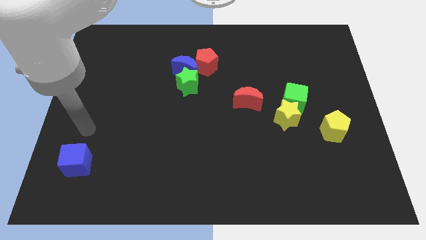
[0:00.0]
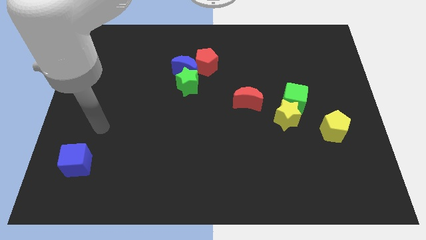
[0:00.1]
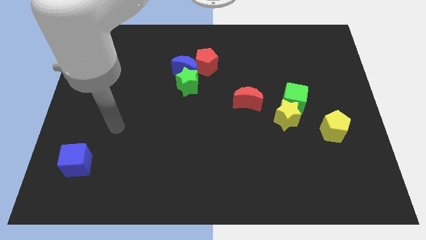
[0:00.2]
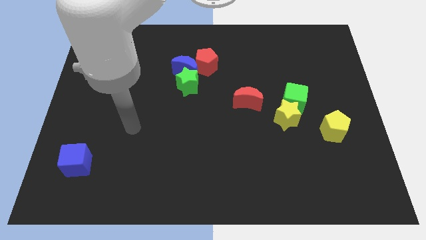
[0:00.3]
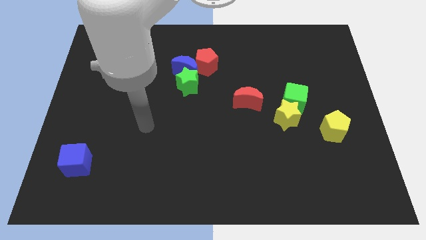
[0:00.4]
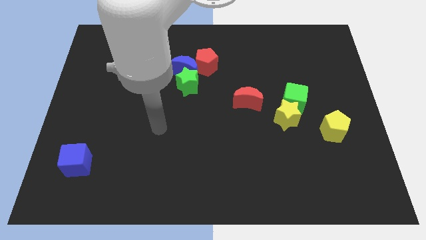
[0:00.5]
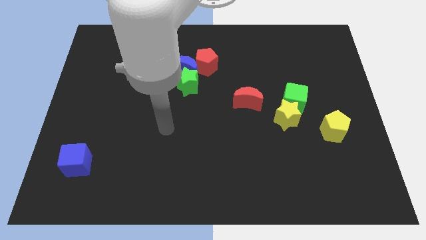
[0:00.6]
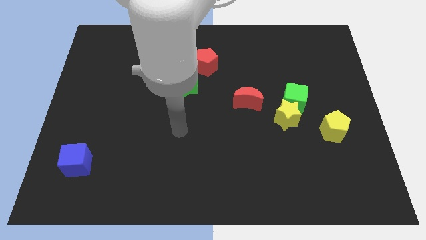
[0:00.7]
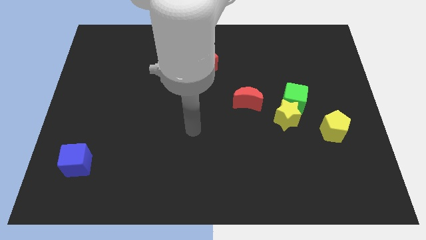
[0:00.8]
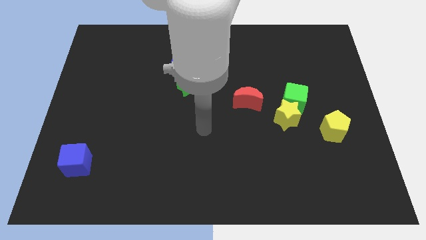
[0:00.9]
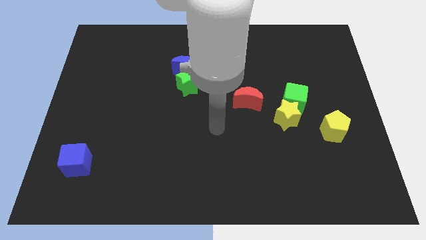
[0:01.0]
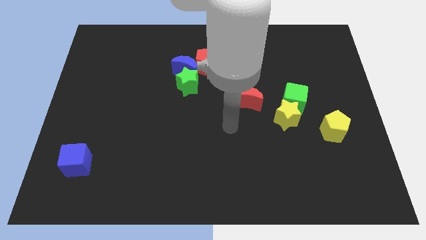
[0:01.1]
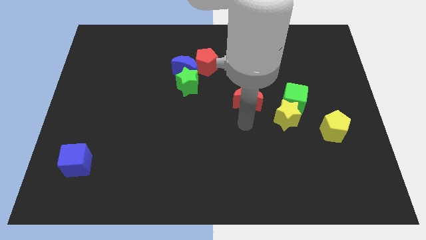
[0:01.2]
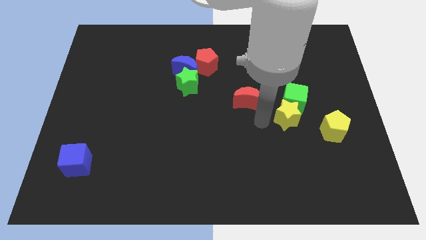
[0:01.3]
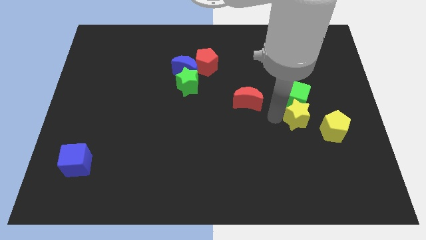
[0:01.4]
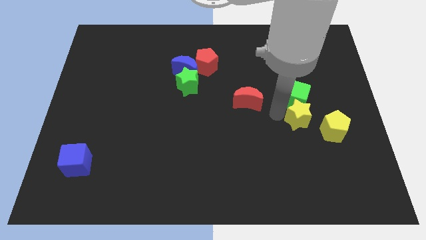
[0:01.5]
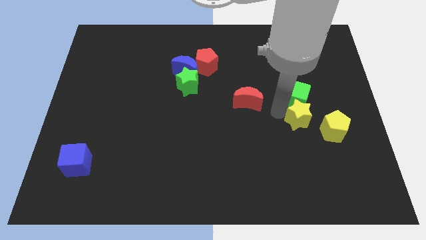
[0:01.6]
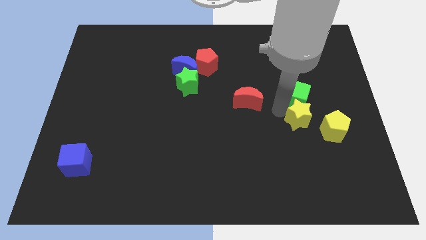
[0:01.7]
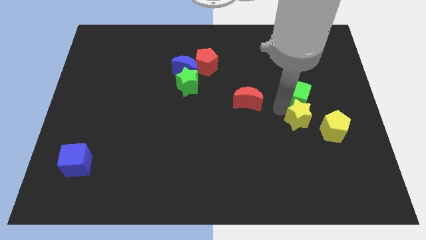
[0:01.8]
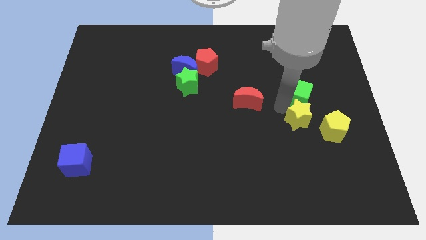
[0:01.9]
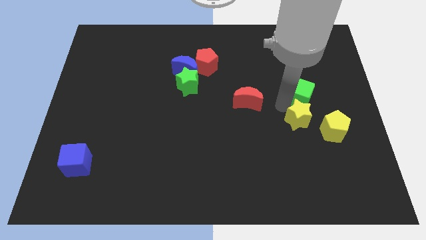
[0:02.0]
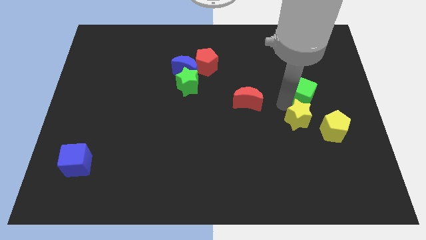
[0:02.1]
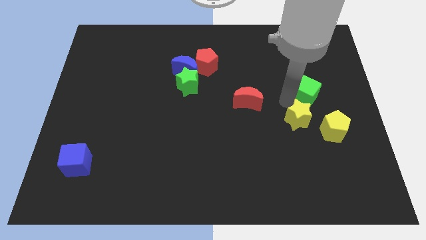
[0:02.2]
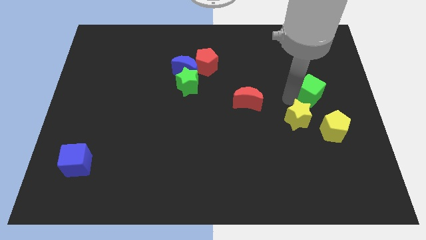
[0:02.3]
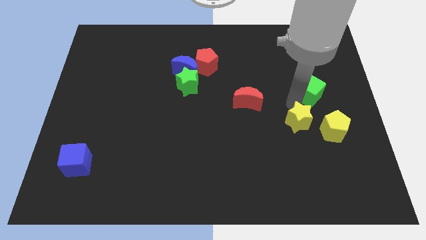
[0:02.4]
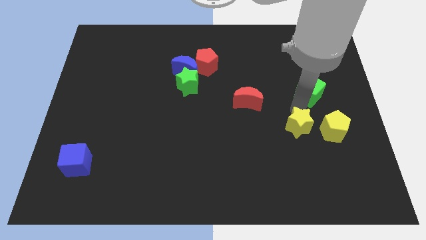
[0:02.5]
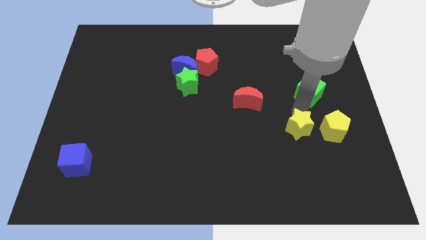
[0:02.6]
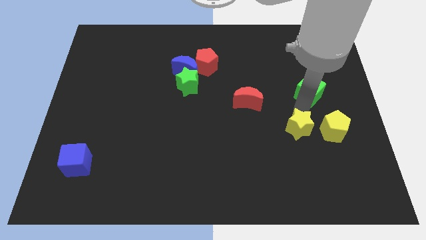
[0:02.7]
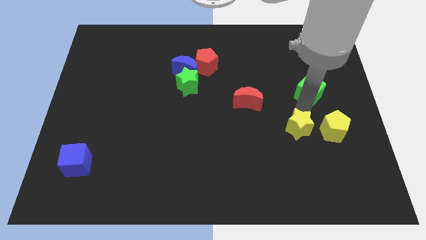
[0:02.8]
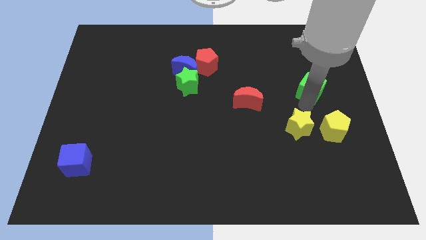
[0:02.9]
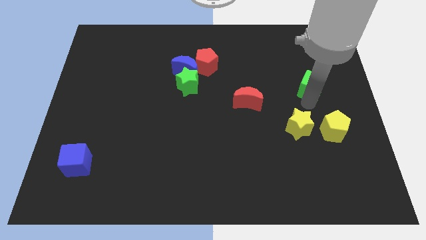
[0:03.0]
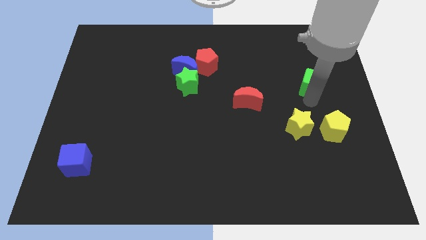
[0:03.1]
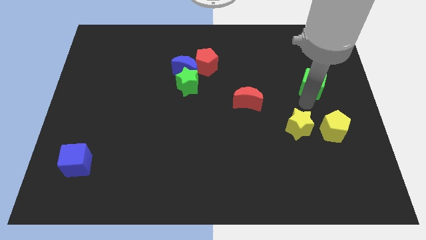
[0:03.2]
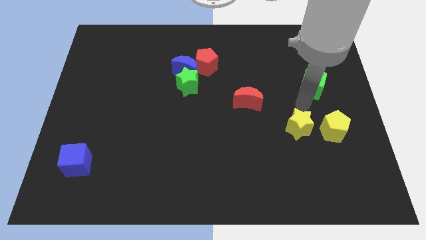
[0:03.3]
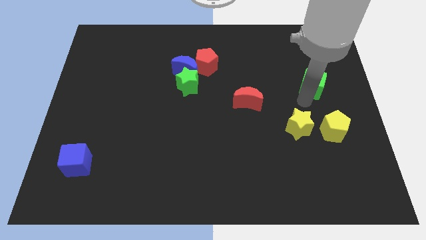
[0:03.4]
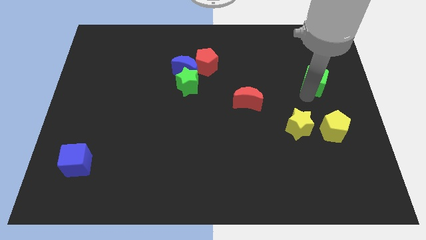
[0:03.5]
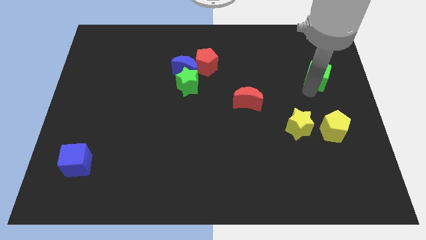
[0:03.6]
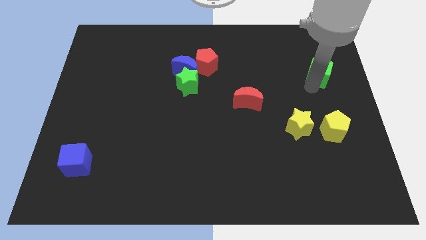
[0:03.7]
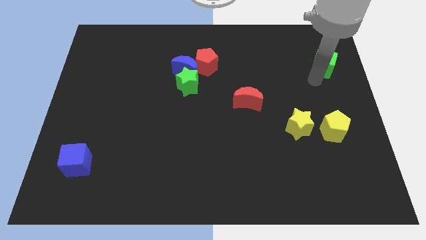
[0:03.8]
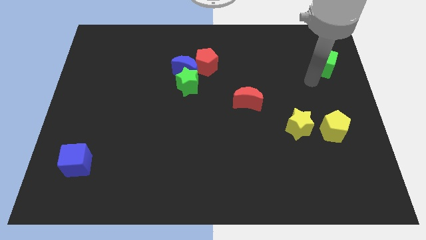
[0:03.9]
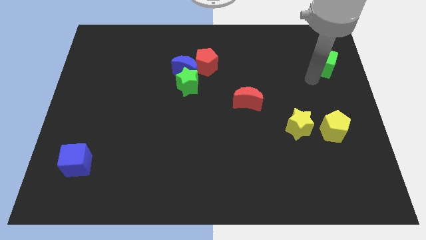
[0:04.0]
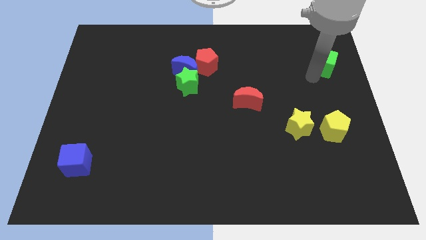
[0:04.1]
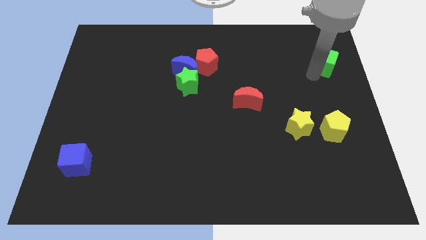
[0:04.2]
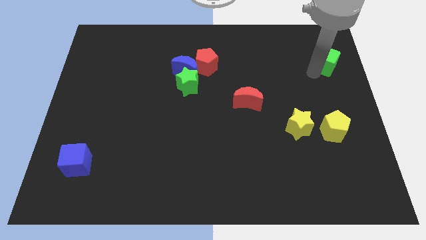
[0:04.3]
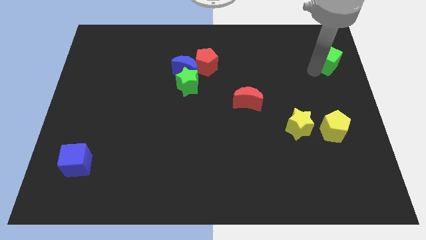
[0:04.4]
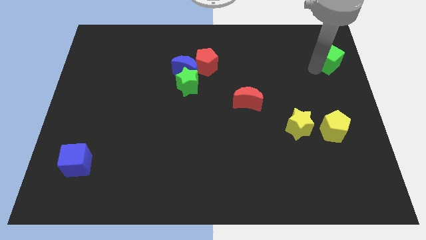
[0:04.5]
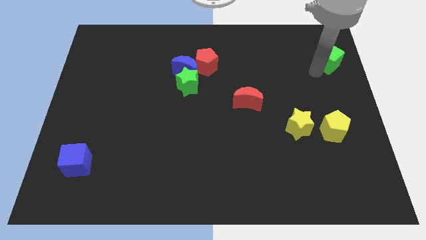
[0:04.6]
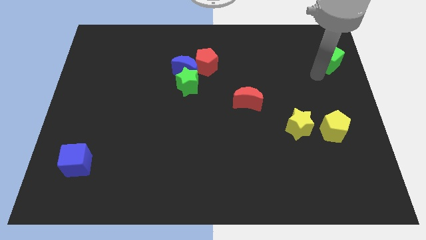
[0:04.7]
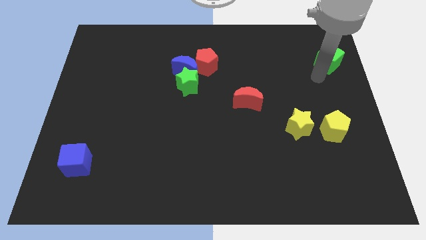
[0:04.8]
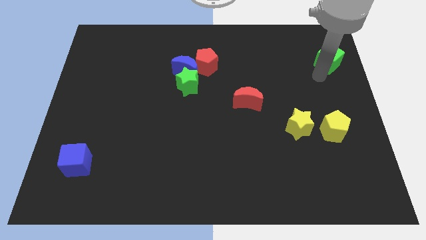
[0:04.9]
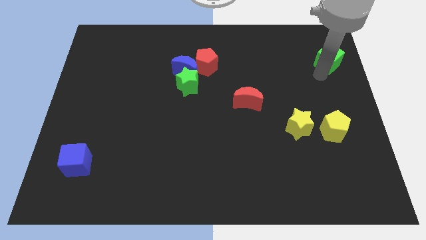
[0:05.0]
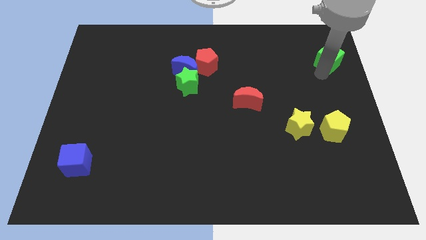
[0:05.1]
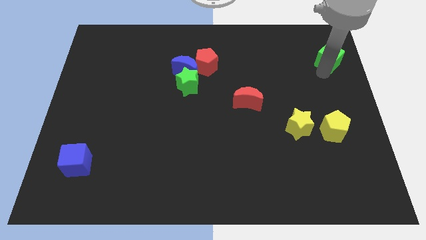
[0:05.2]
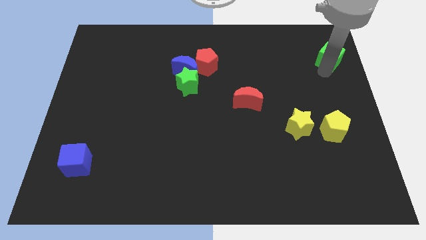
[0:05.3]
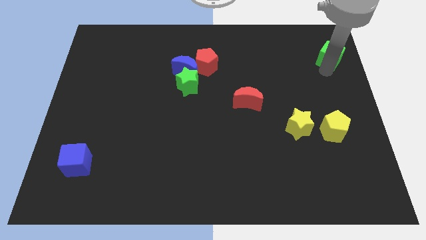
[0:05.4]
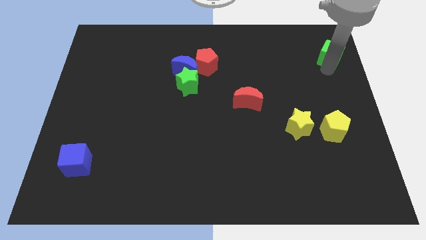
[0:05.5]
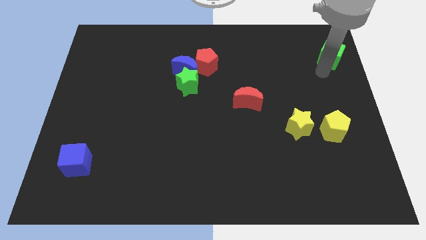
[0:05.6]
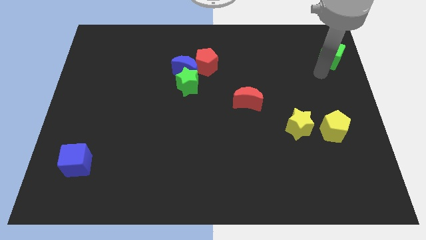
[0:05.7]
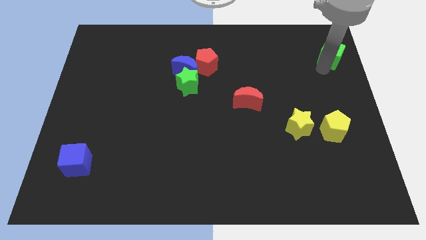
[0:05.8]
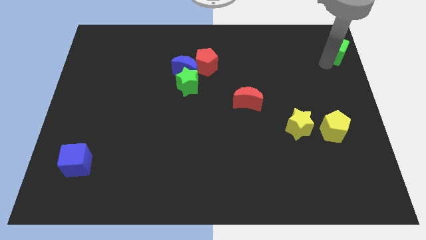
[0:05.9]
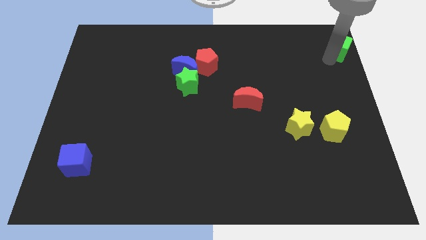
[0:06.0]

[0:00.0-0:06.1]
push the green cube to the top right corner

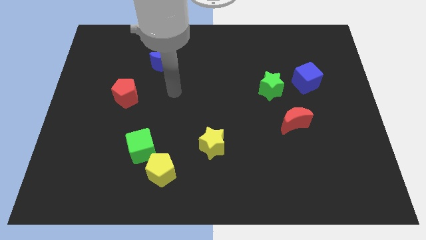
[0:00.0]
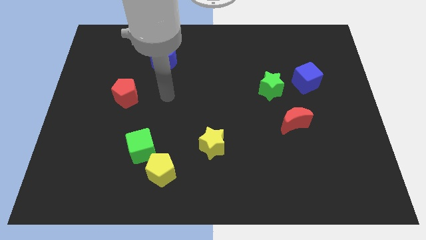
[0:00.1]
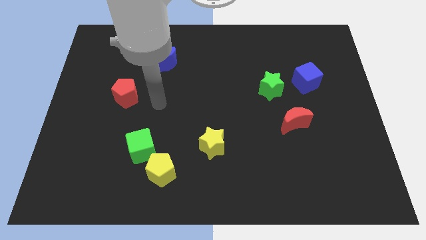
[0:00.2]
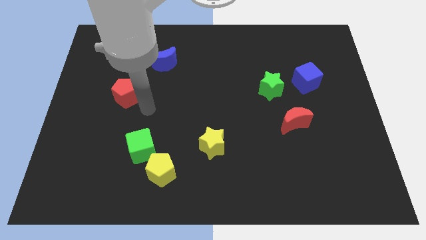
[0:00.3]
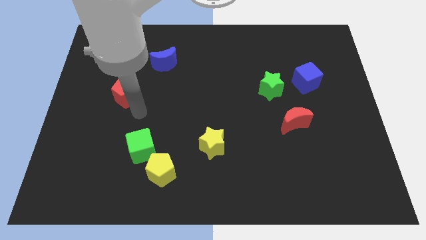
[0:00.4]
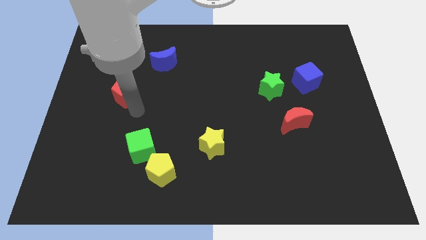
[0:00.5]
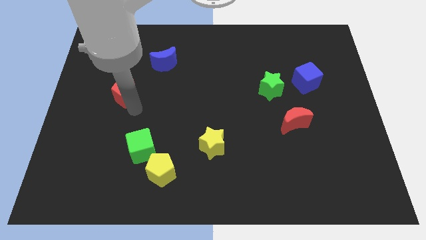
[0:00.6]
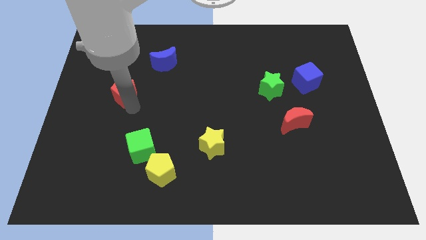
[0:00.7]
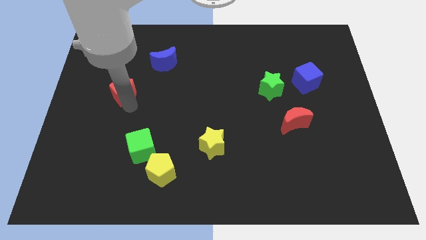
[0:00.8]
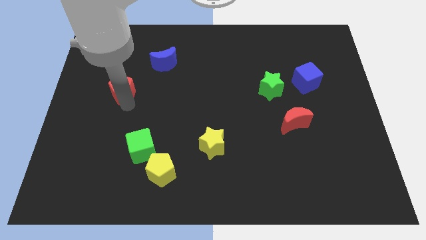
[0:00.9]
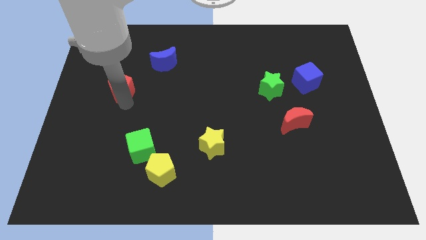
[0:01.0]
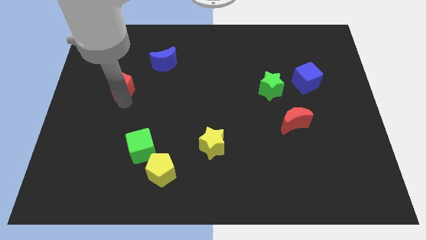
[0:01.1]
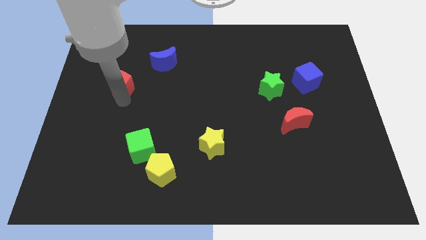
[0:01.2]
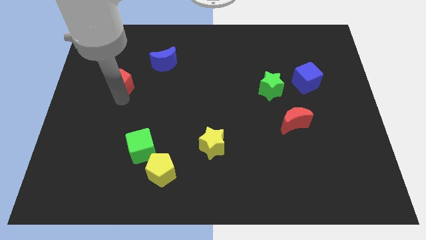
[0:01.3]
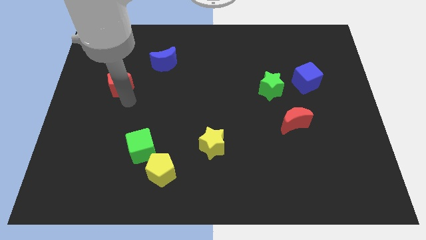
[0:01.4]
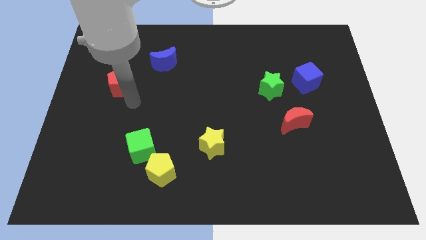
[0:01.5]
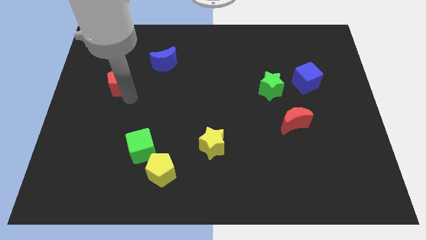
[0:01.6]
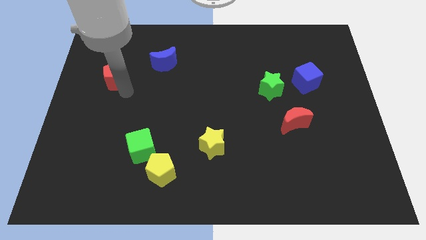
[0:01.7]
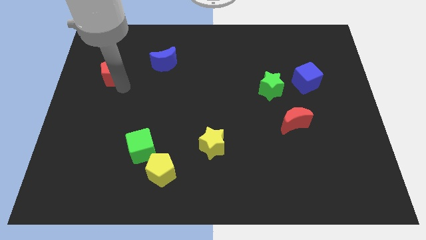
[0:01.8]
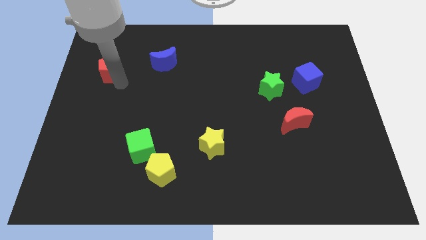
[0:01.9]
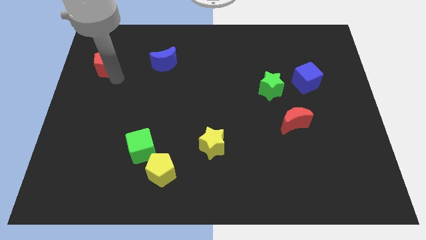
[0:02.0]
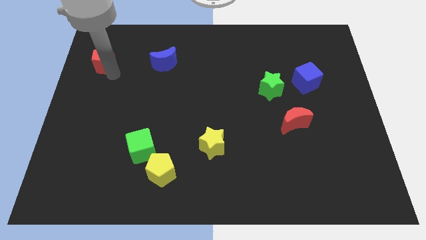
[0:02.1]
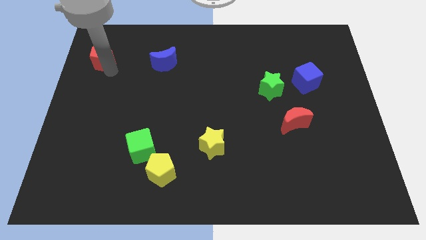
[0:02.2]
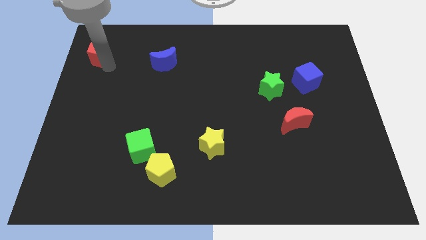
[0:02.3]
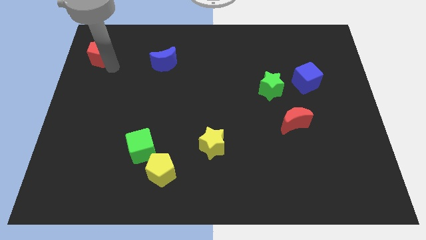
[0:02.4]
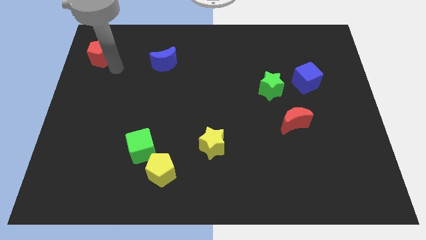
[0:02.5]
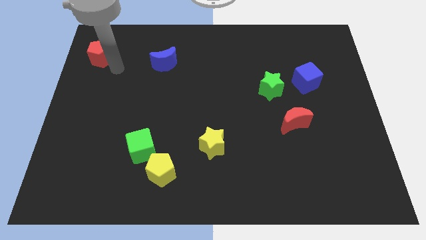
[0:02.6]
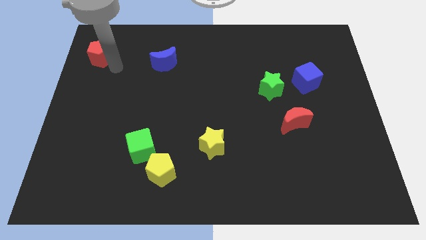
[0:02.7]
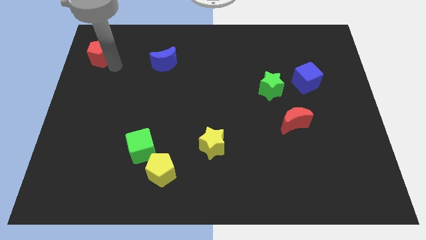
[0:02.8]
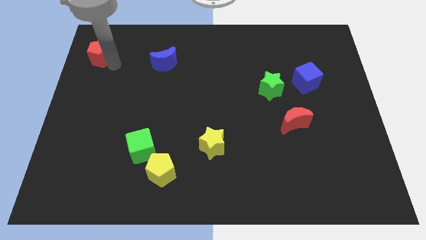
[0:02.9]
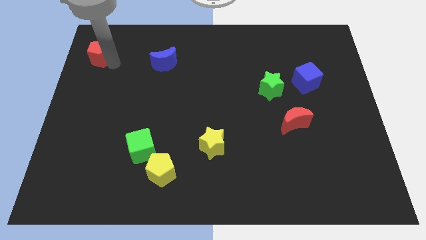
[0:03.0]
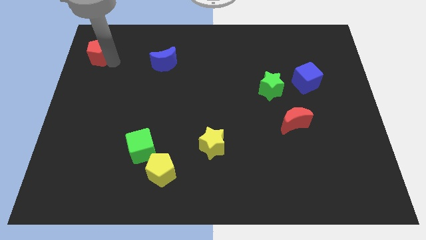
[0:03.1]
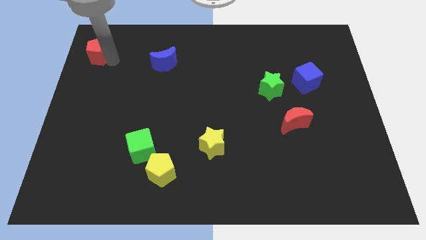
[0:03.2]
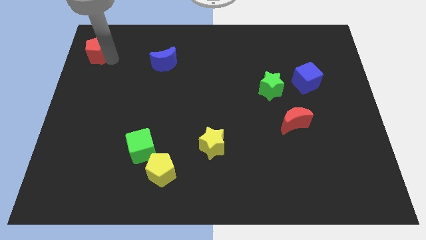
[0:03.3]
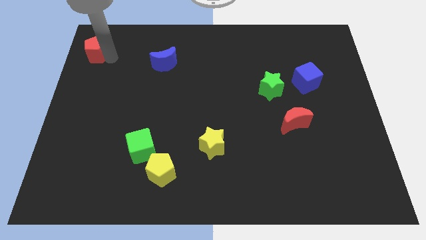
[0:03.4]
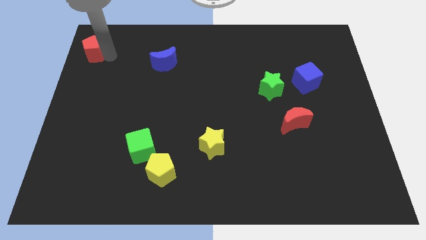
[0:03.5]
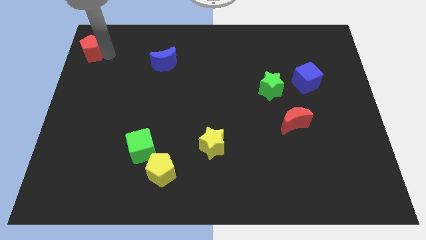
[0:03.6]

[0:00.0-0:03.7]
move the red pentagon to the top left corner
